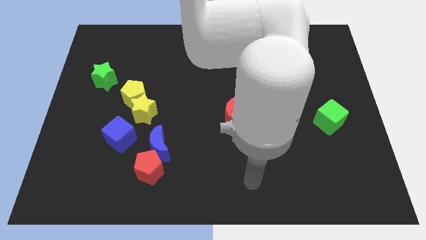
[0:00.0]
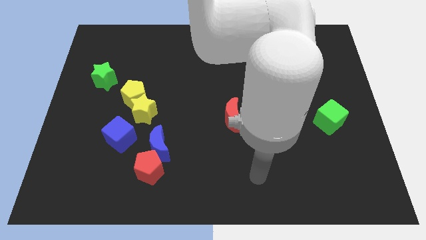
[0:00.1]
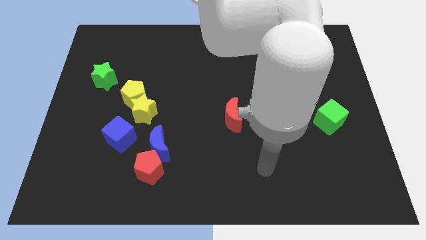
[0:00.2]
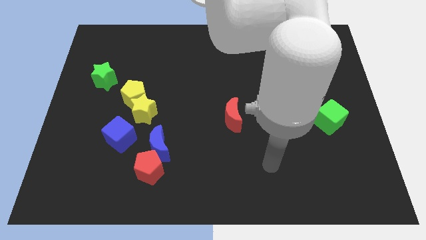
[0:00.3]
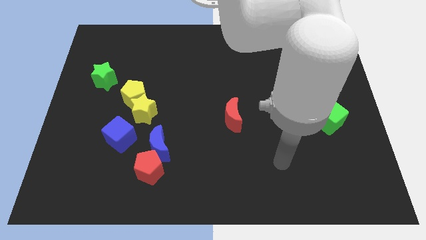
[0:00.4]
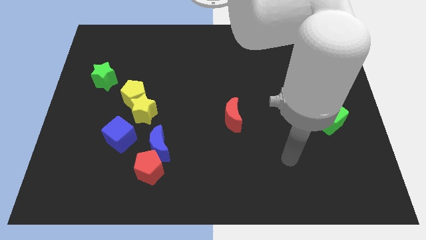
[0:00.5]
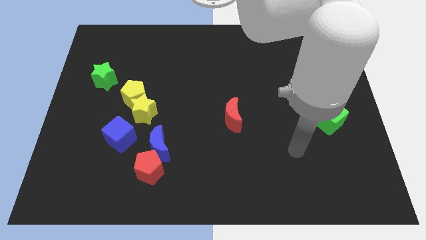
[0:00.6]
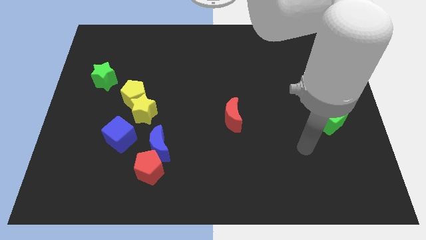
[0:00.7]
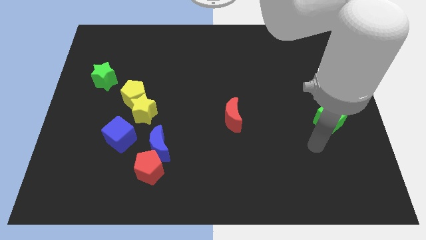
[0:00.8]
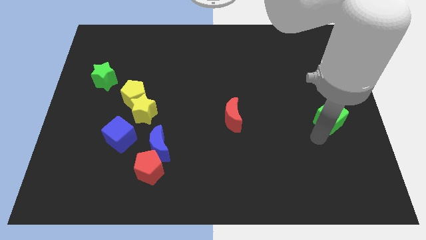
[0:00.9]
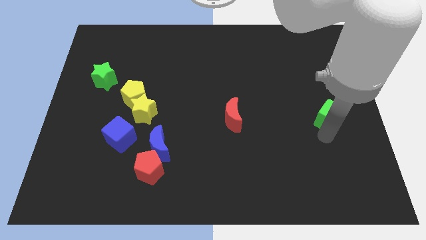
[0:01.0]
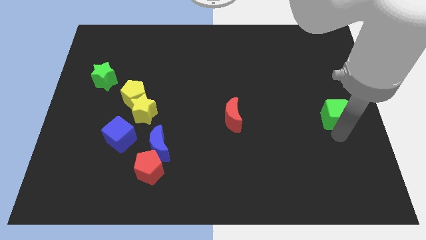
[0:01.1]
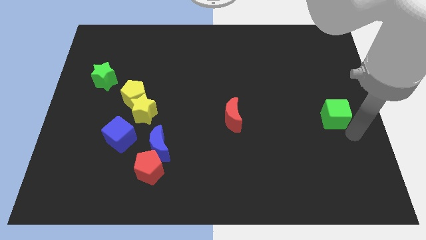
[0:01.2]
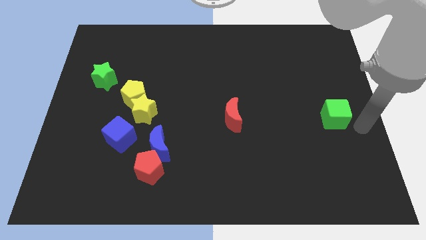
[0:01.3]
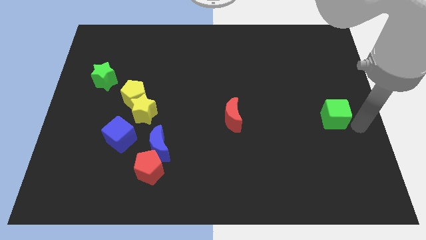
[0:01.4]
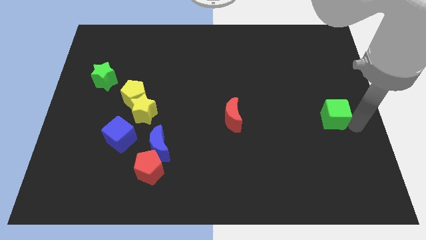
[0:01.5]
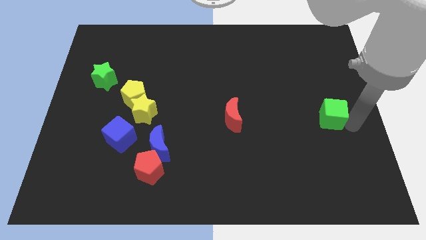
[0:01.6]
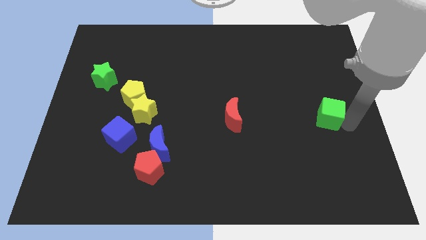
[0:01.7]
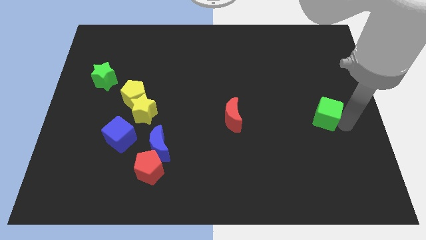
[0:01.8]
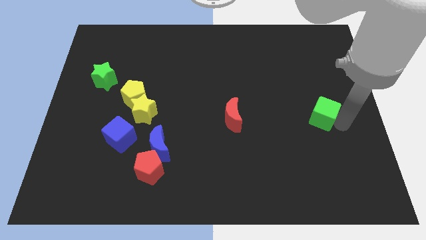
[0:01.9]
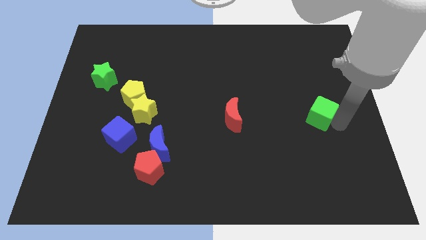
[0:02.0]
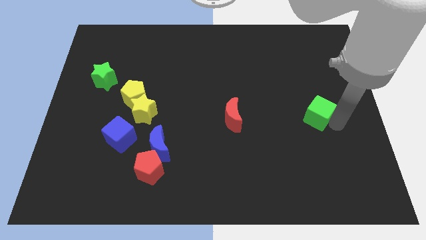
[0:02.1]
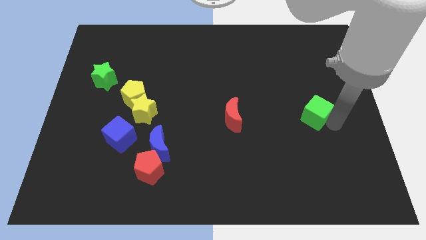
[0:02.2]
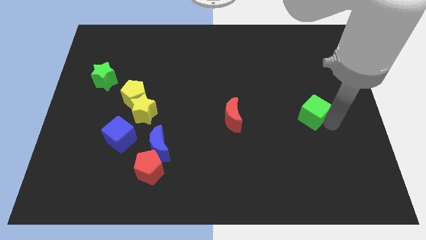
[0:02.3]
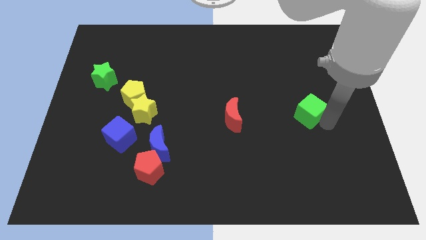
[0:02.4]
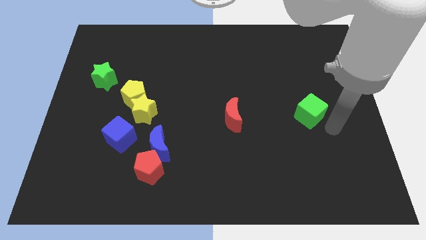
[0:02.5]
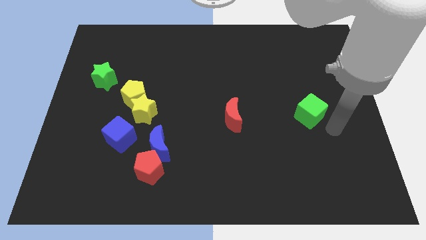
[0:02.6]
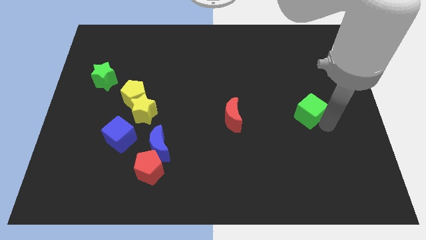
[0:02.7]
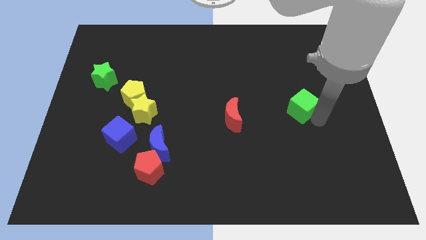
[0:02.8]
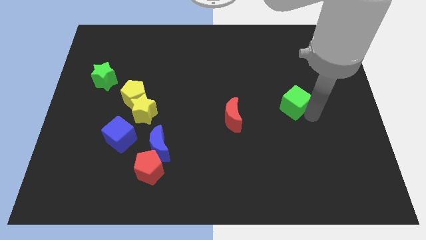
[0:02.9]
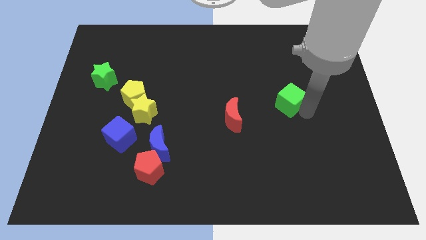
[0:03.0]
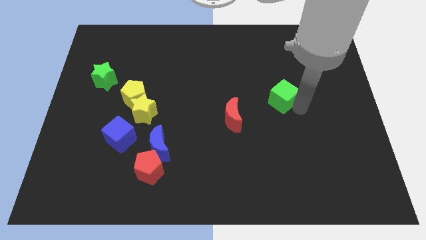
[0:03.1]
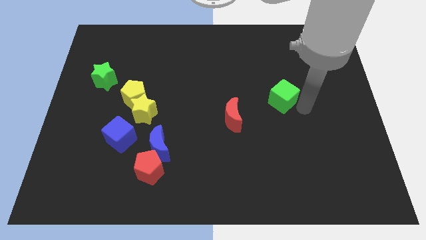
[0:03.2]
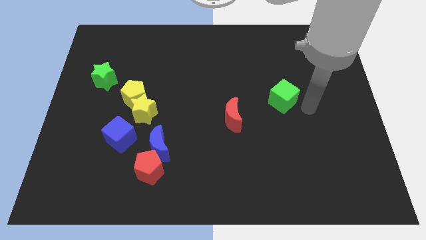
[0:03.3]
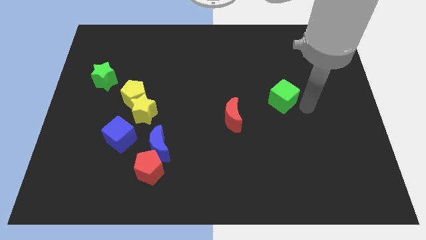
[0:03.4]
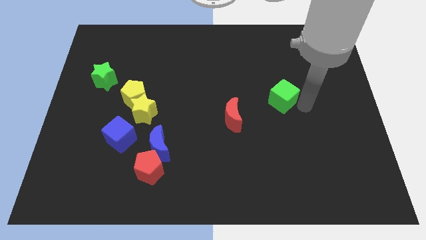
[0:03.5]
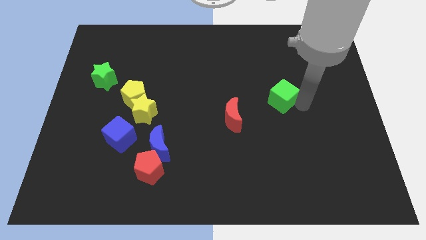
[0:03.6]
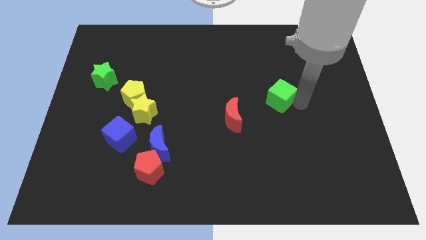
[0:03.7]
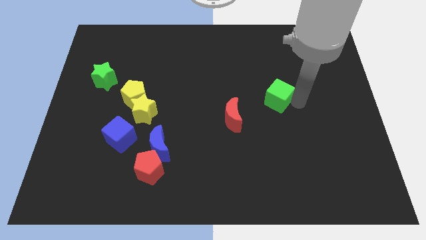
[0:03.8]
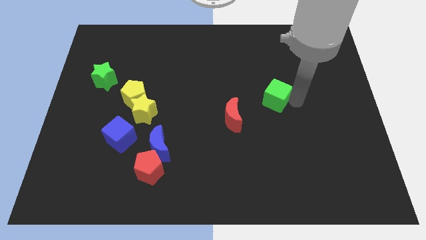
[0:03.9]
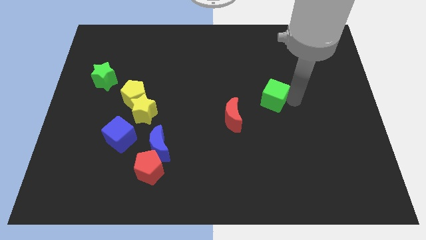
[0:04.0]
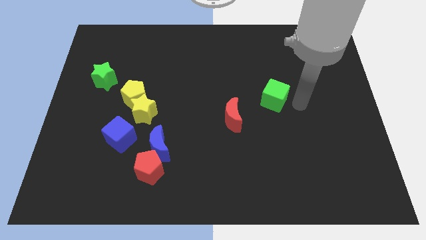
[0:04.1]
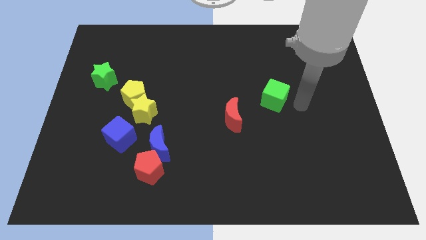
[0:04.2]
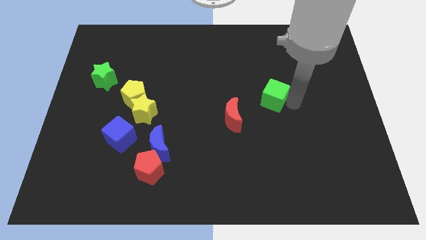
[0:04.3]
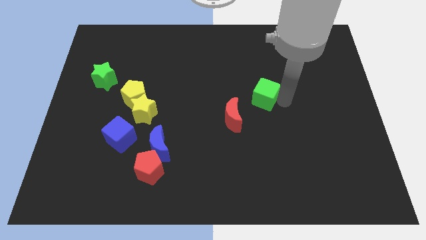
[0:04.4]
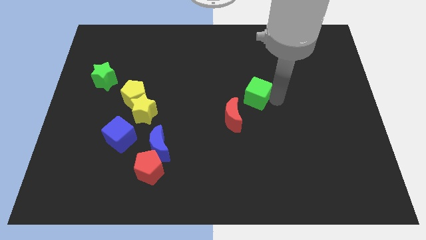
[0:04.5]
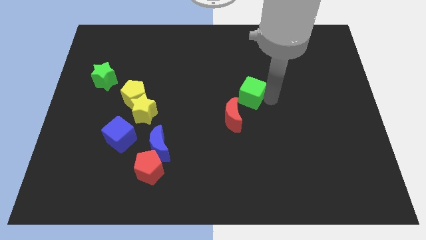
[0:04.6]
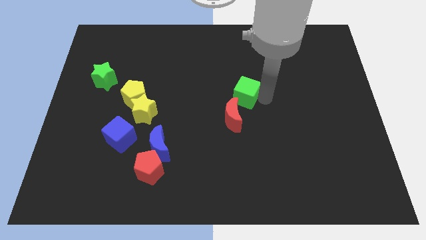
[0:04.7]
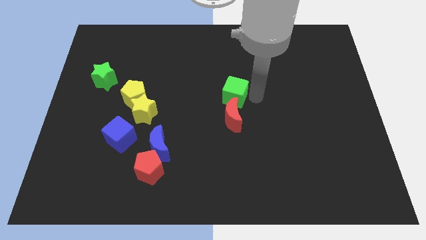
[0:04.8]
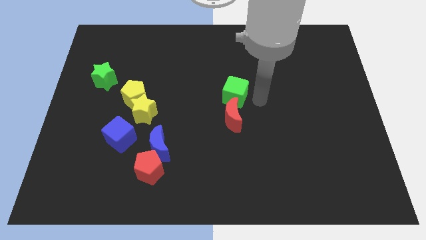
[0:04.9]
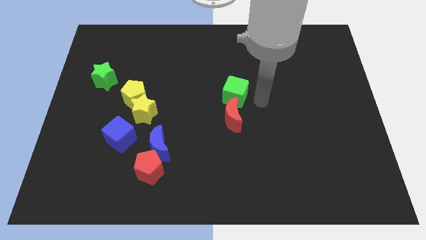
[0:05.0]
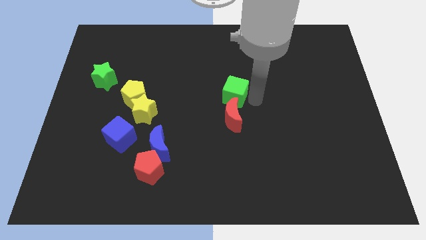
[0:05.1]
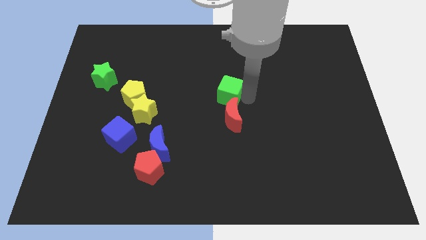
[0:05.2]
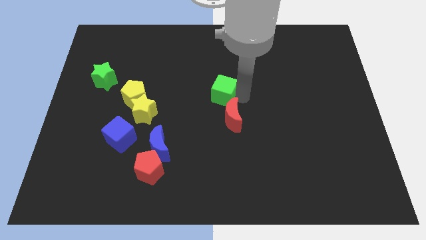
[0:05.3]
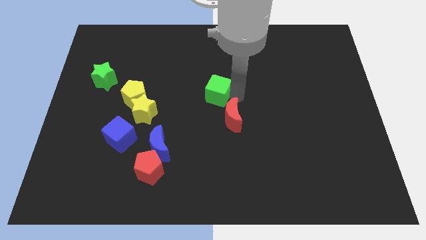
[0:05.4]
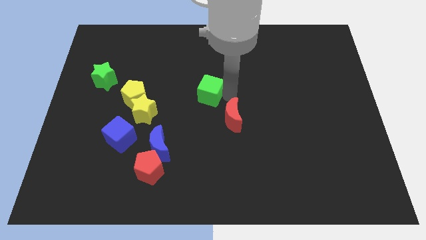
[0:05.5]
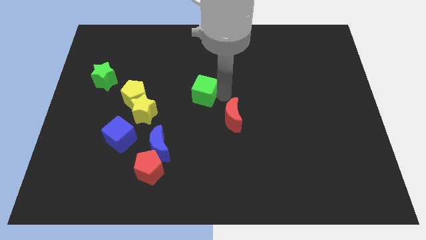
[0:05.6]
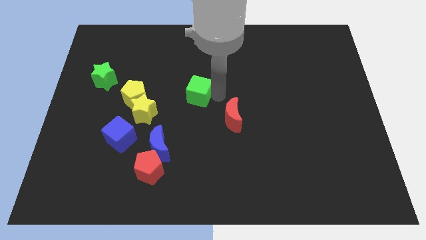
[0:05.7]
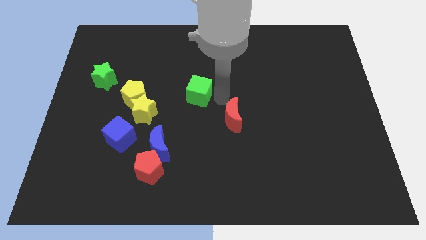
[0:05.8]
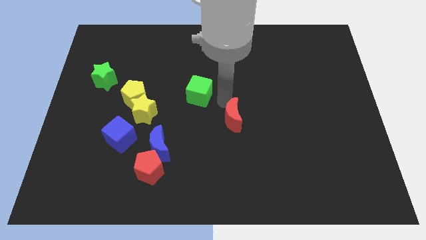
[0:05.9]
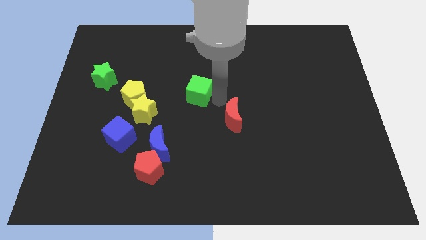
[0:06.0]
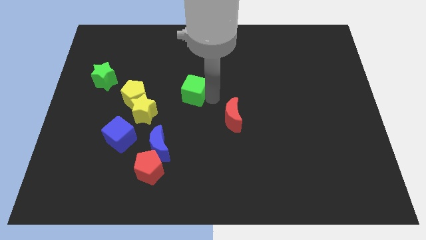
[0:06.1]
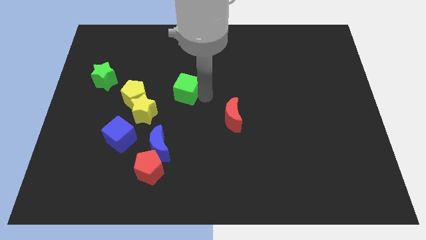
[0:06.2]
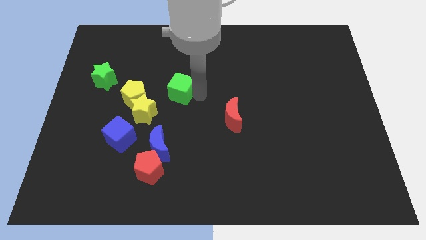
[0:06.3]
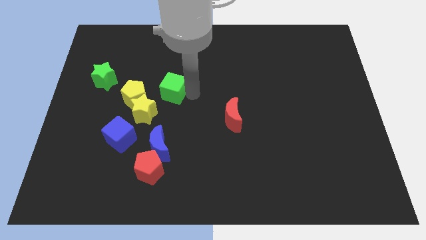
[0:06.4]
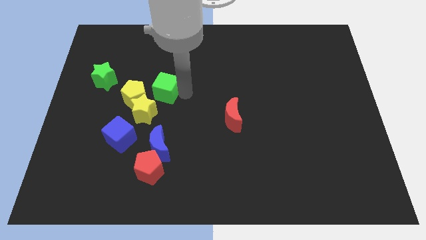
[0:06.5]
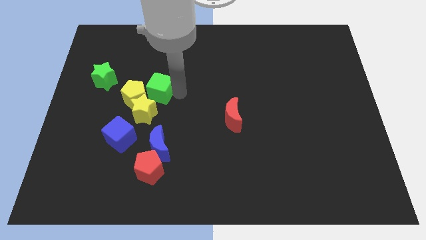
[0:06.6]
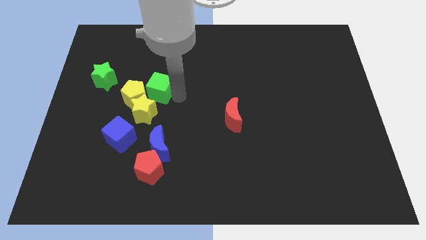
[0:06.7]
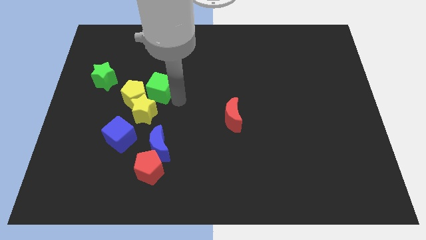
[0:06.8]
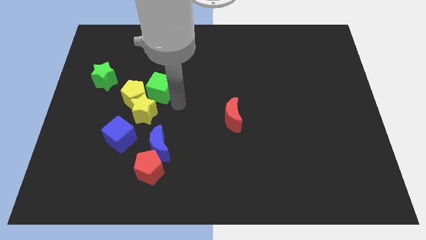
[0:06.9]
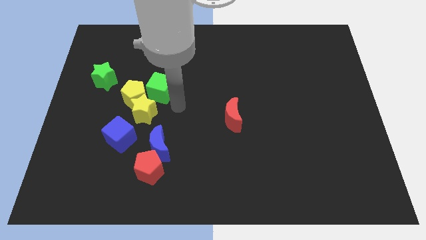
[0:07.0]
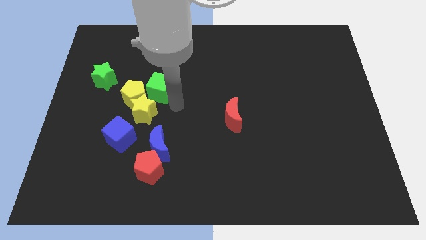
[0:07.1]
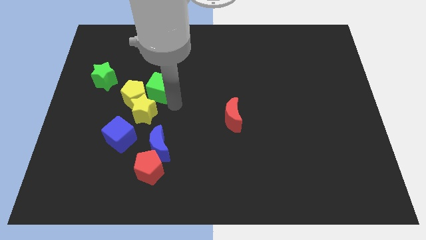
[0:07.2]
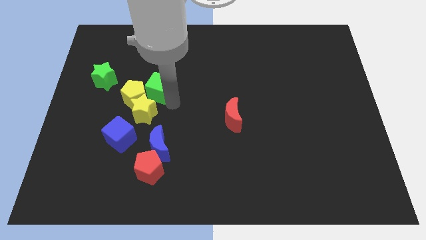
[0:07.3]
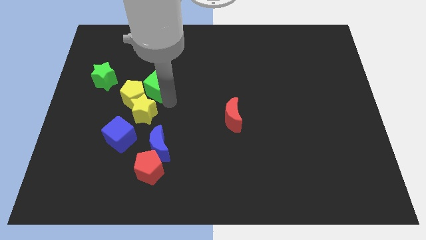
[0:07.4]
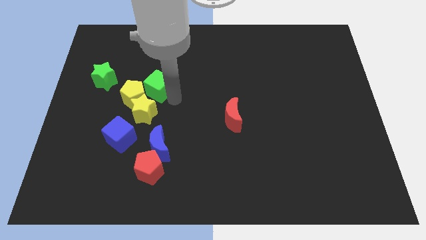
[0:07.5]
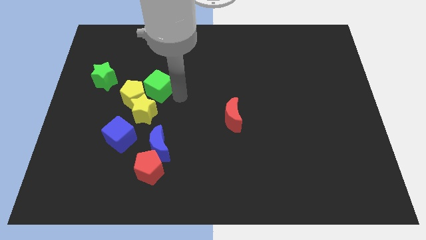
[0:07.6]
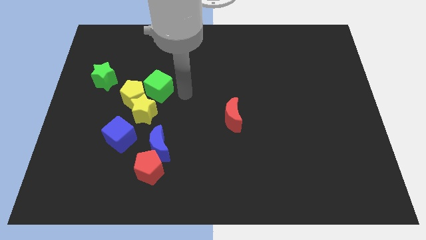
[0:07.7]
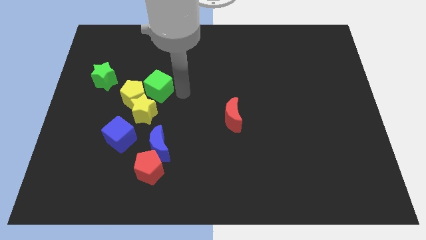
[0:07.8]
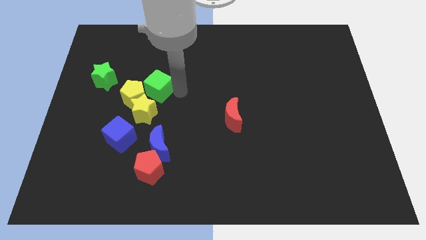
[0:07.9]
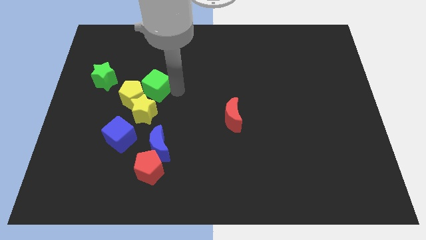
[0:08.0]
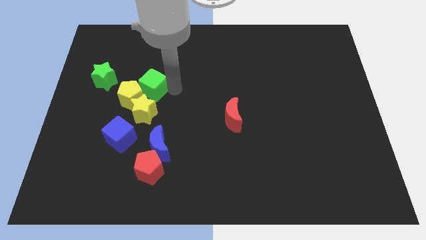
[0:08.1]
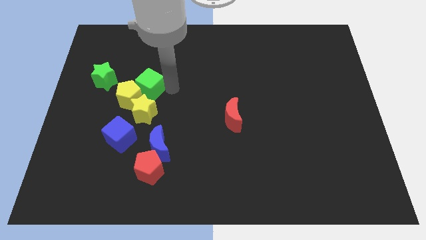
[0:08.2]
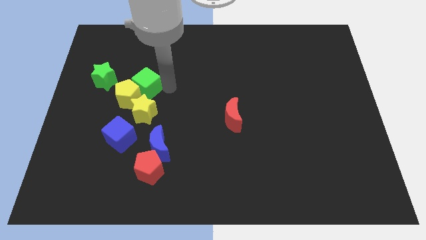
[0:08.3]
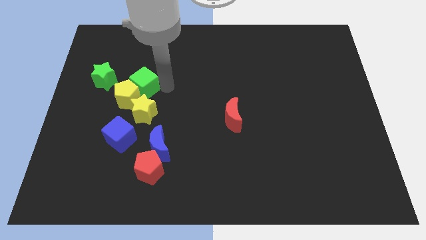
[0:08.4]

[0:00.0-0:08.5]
put the green cube to the top side of the blue cube
